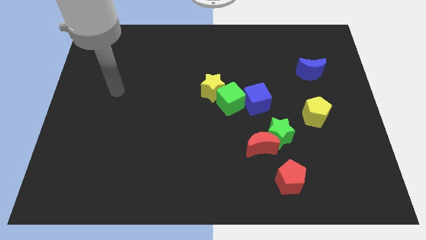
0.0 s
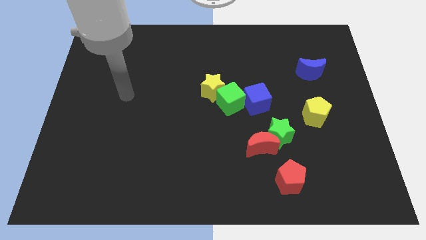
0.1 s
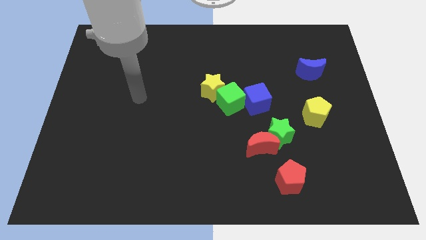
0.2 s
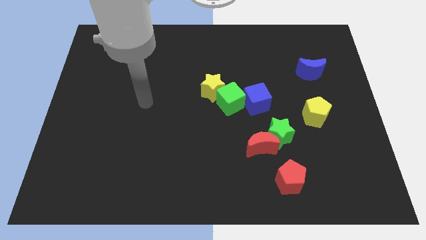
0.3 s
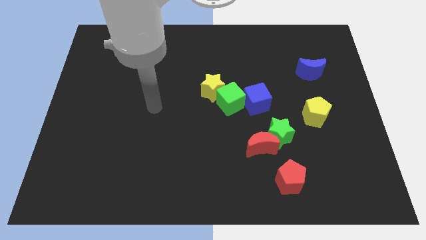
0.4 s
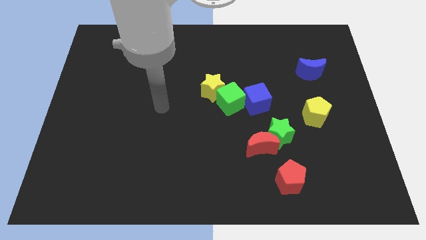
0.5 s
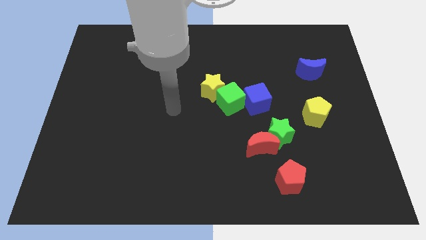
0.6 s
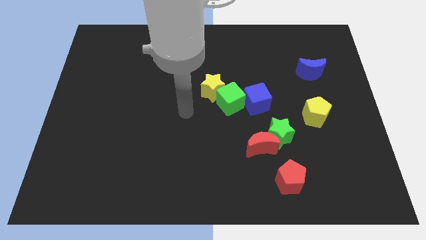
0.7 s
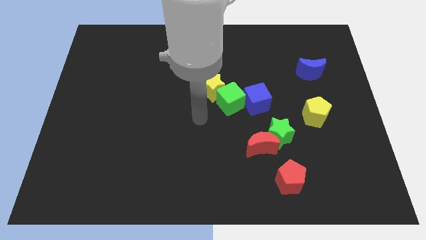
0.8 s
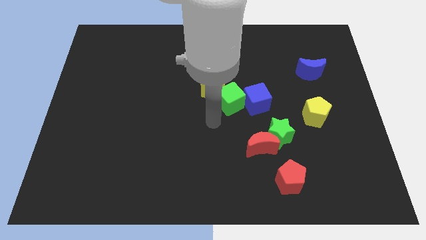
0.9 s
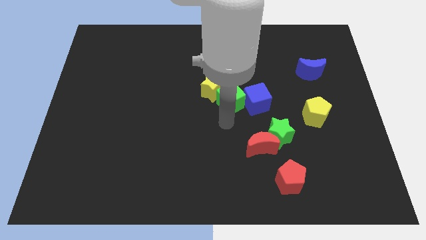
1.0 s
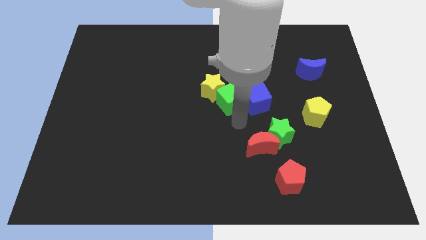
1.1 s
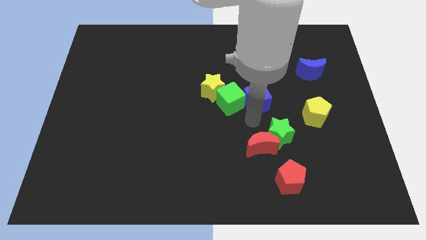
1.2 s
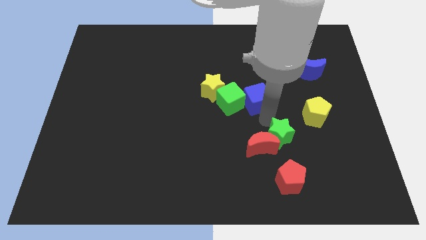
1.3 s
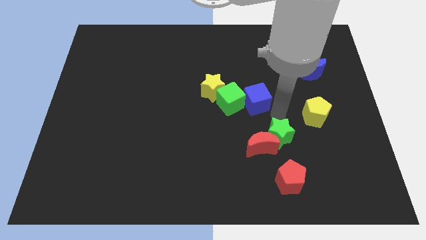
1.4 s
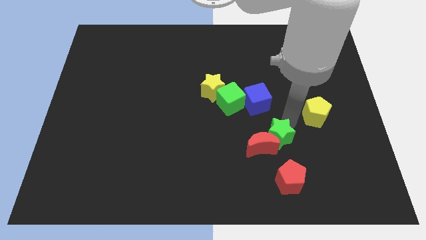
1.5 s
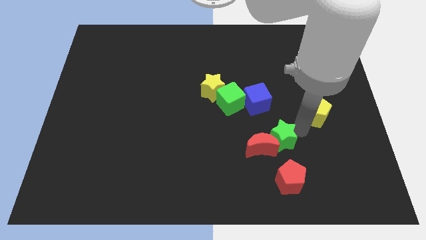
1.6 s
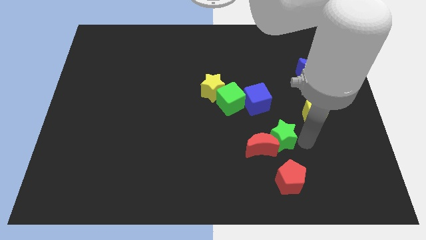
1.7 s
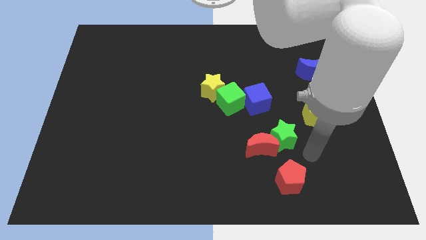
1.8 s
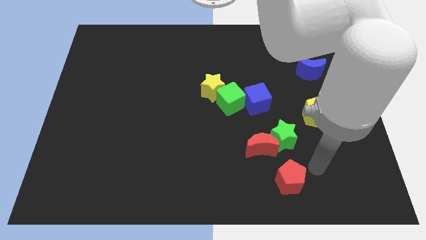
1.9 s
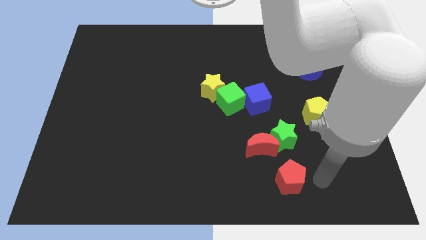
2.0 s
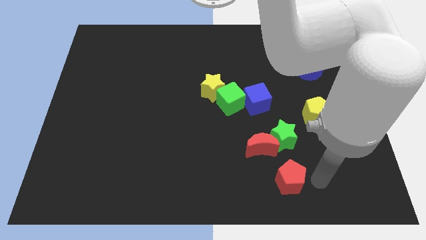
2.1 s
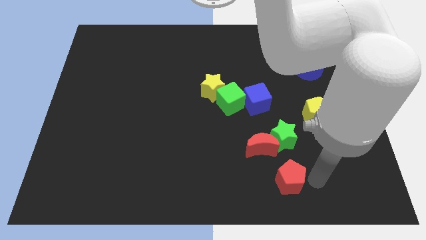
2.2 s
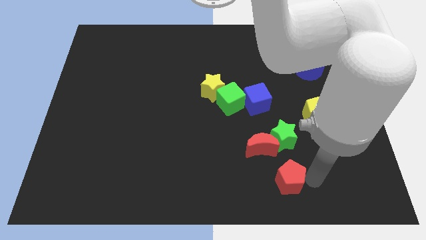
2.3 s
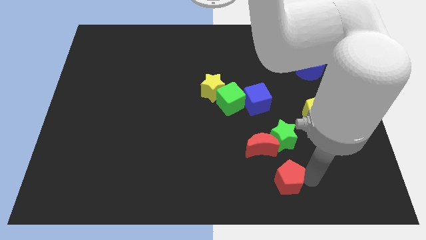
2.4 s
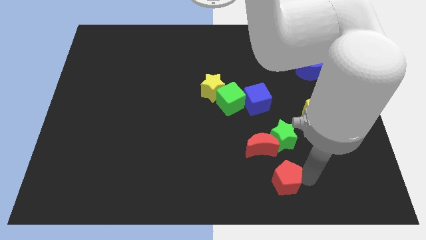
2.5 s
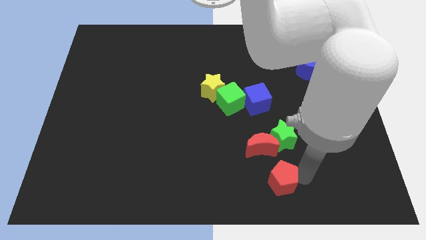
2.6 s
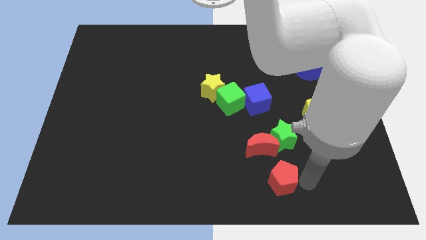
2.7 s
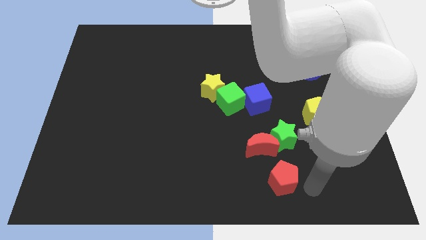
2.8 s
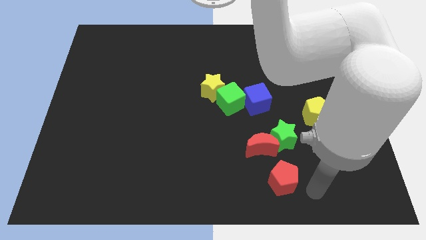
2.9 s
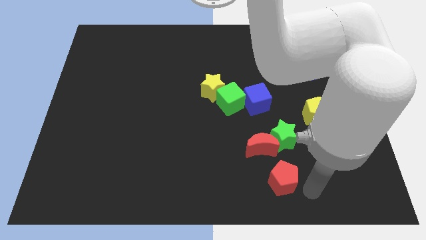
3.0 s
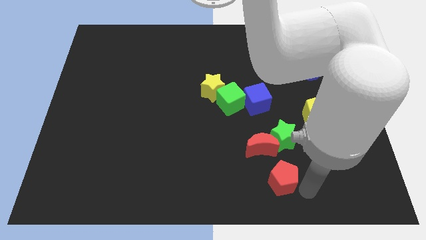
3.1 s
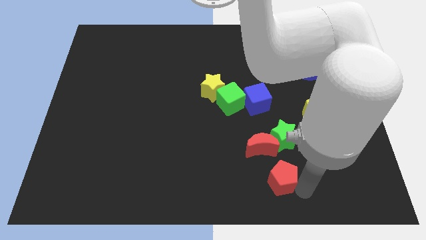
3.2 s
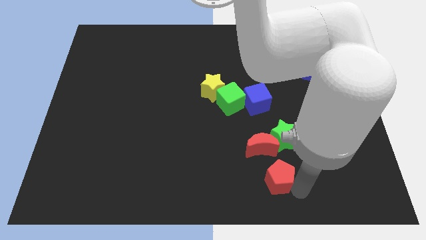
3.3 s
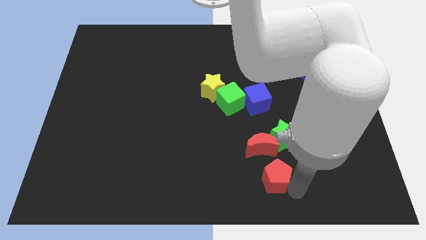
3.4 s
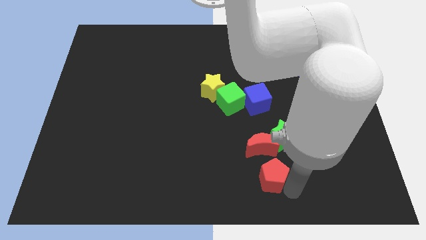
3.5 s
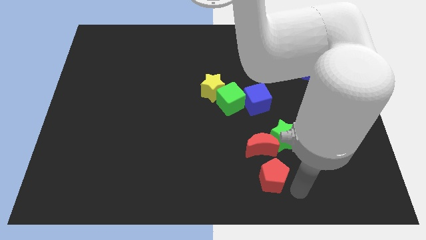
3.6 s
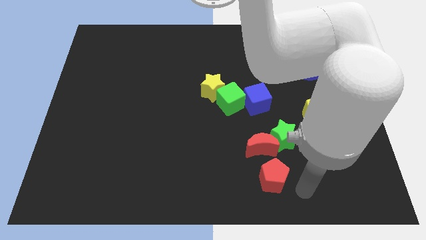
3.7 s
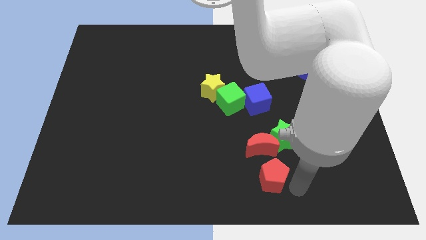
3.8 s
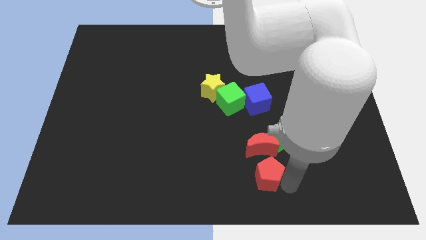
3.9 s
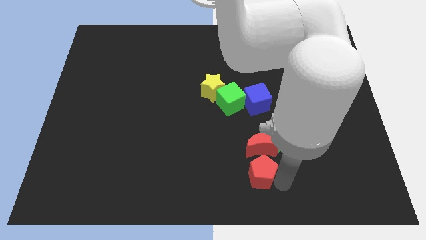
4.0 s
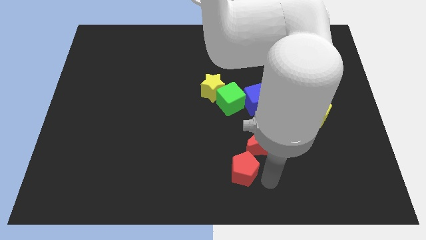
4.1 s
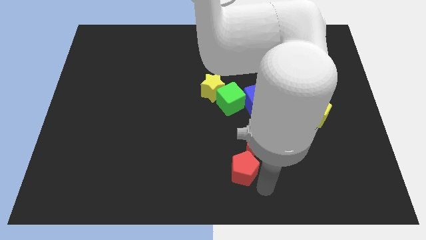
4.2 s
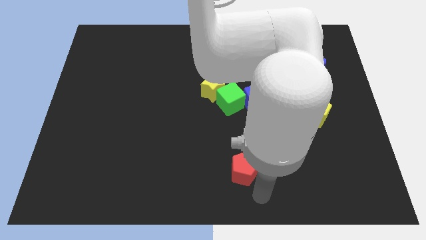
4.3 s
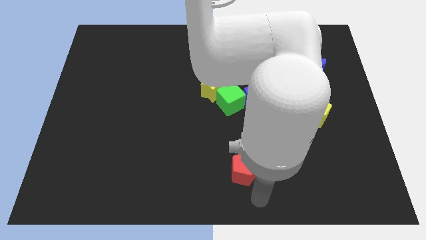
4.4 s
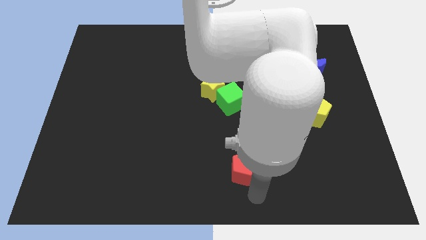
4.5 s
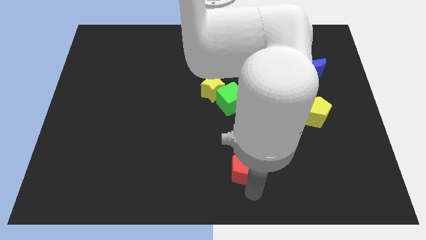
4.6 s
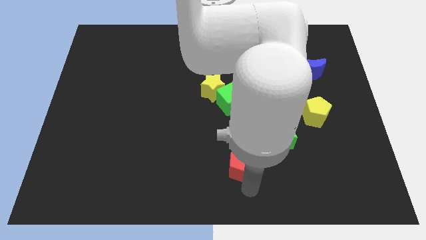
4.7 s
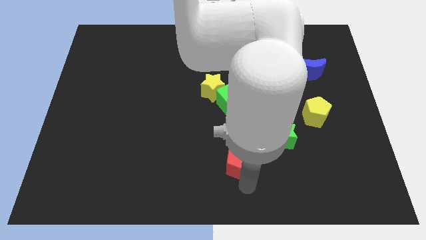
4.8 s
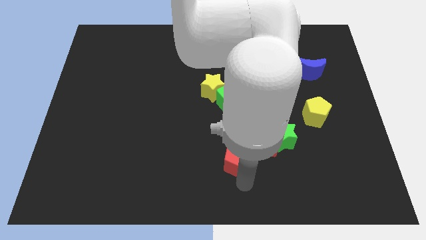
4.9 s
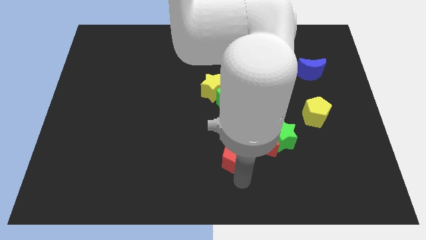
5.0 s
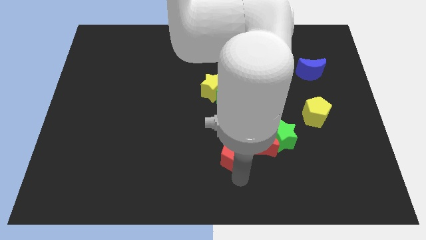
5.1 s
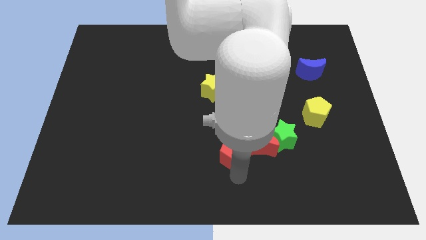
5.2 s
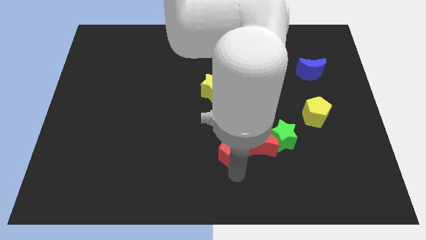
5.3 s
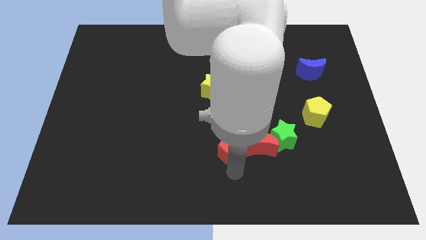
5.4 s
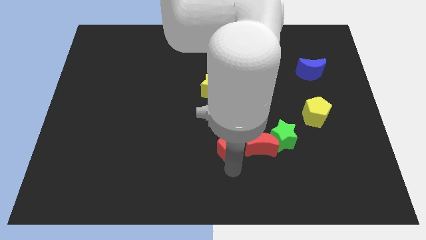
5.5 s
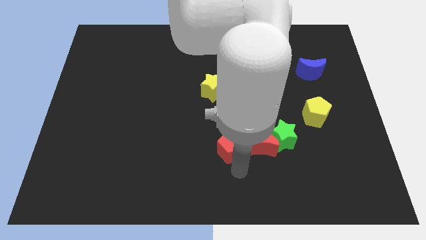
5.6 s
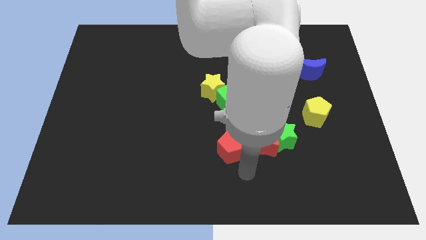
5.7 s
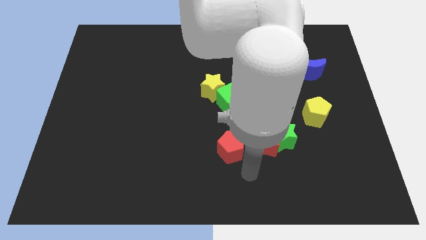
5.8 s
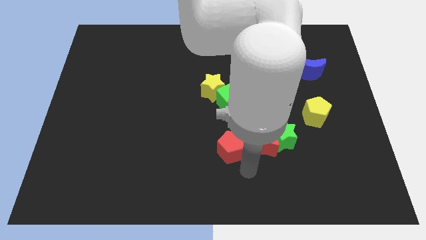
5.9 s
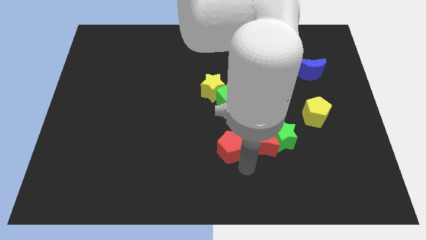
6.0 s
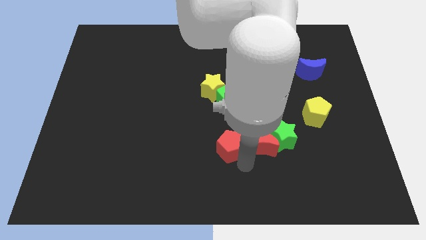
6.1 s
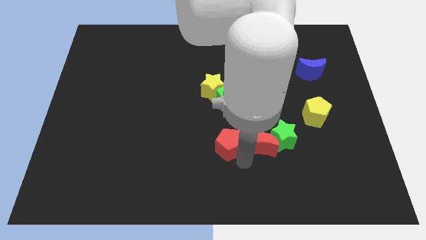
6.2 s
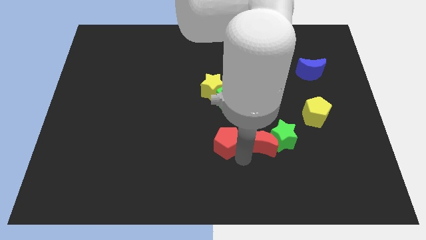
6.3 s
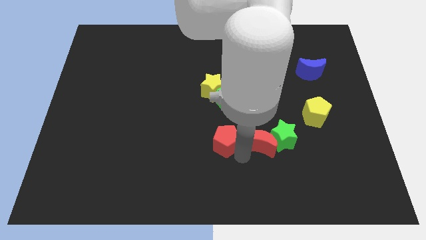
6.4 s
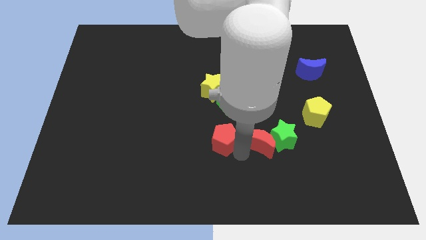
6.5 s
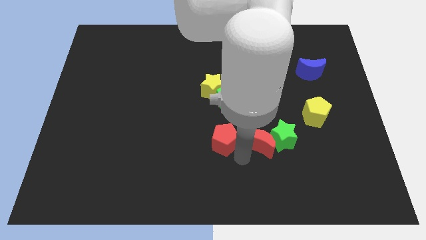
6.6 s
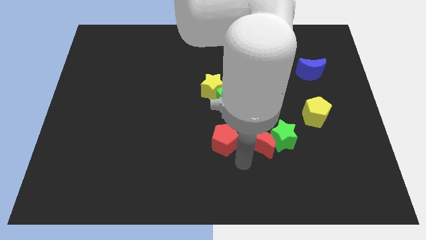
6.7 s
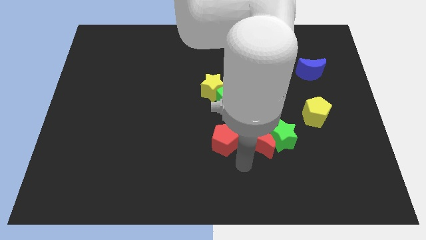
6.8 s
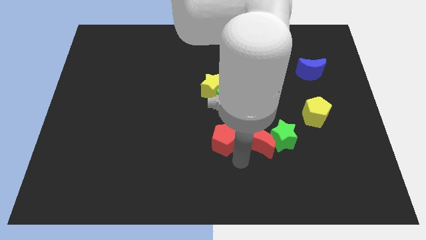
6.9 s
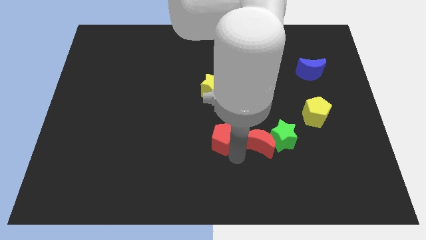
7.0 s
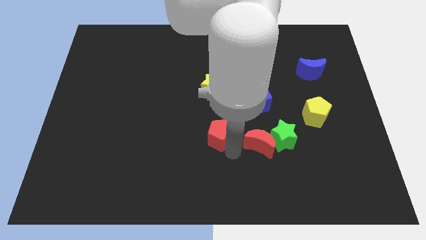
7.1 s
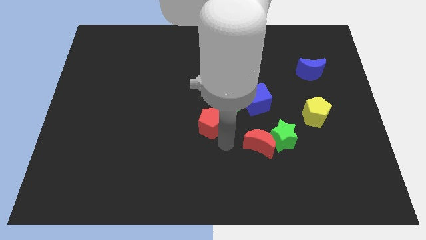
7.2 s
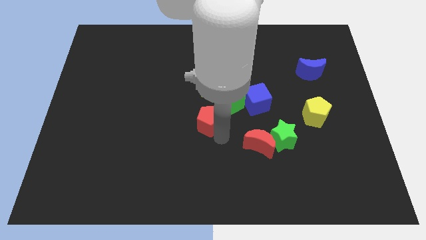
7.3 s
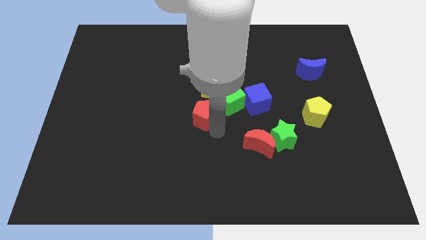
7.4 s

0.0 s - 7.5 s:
slide the red pentagon diagonally down and to the left of the yellow star
